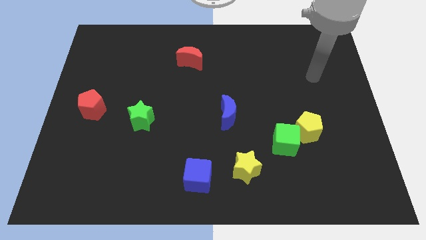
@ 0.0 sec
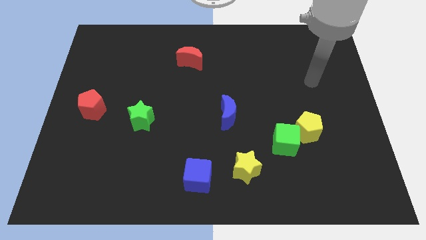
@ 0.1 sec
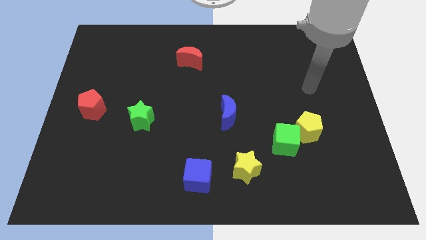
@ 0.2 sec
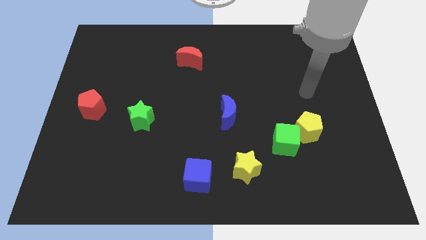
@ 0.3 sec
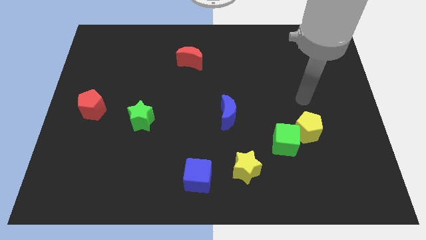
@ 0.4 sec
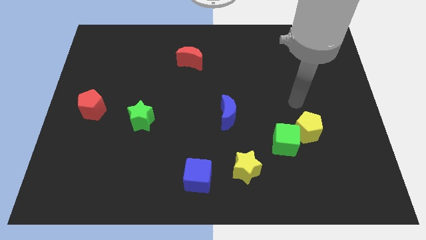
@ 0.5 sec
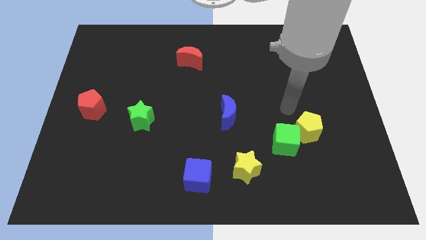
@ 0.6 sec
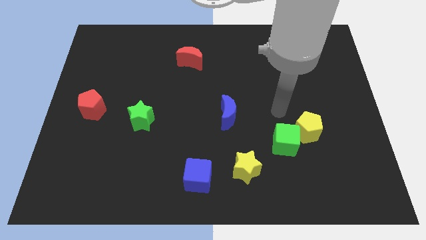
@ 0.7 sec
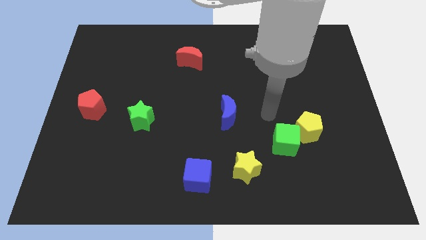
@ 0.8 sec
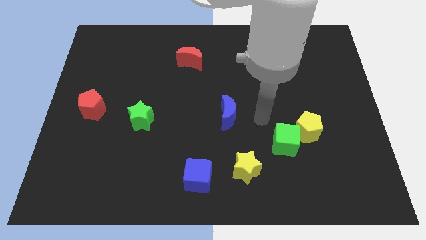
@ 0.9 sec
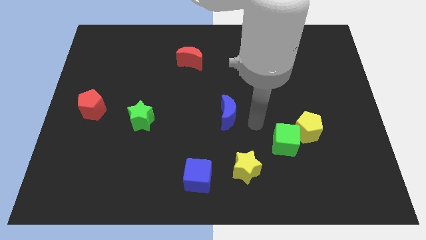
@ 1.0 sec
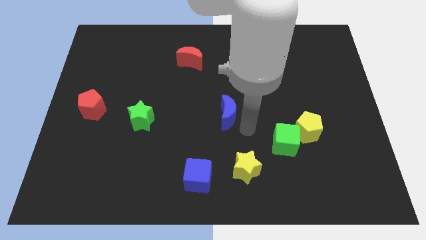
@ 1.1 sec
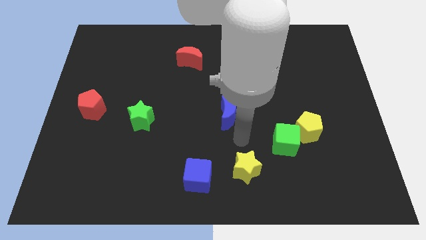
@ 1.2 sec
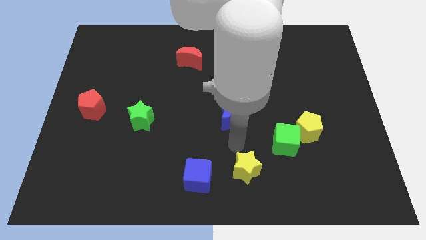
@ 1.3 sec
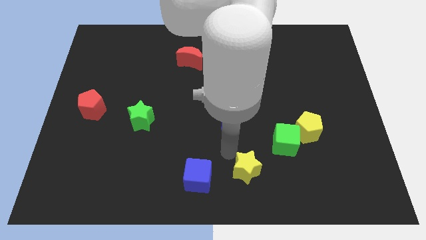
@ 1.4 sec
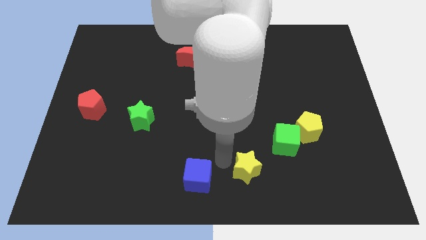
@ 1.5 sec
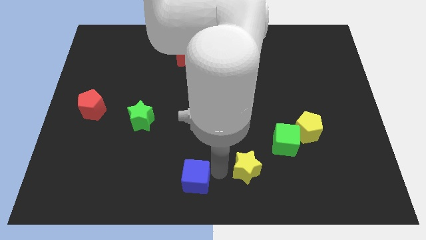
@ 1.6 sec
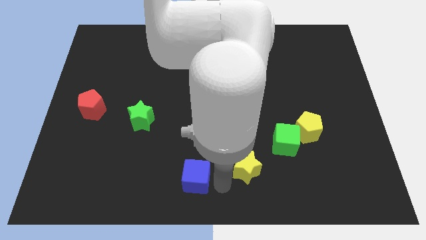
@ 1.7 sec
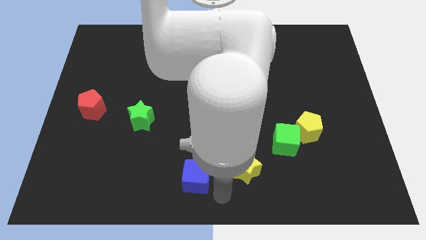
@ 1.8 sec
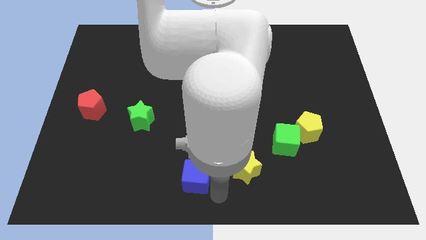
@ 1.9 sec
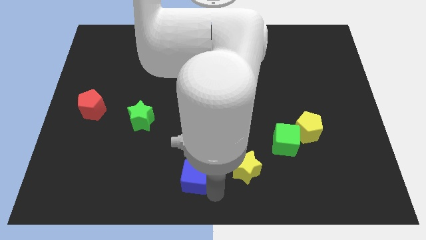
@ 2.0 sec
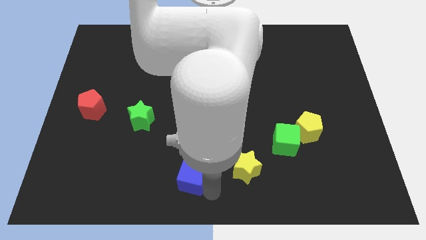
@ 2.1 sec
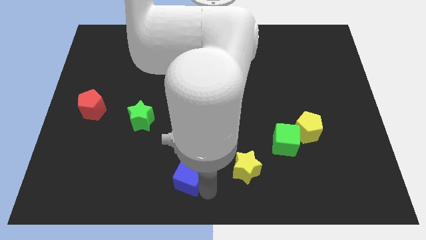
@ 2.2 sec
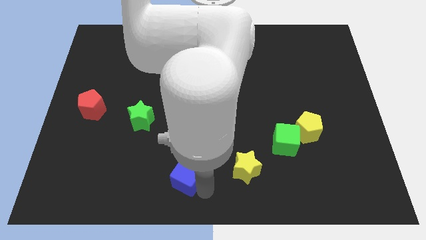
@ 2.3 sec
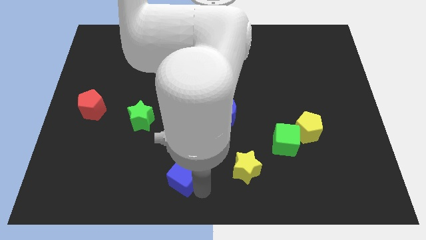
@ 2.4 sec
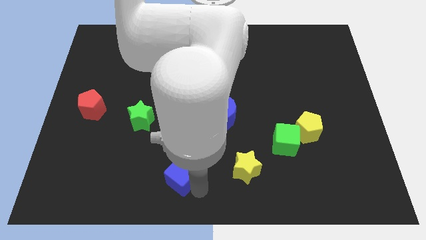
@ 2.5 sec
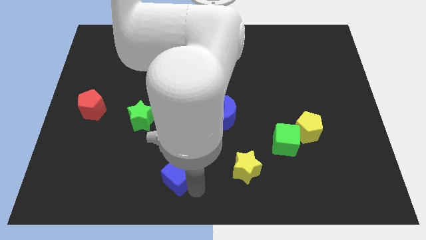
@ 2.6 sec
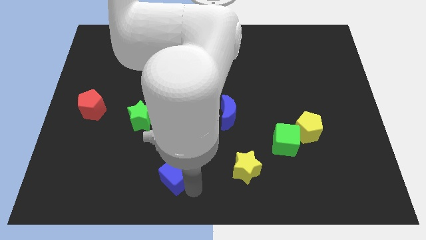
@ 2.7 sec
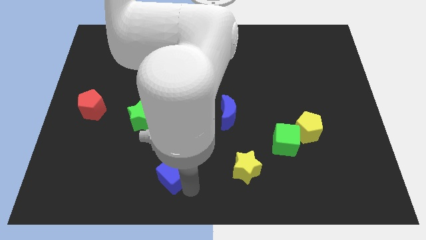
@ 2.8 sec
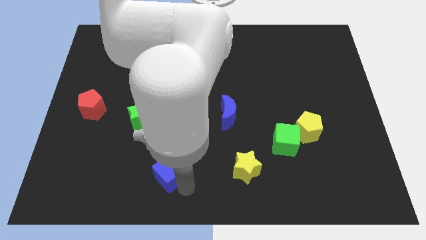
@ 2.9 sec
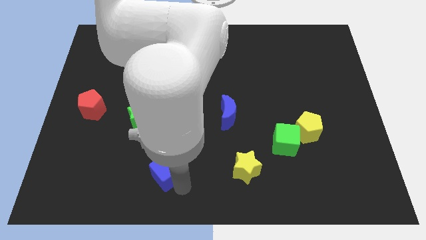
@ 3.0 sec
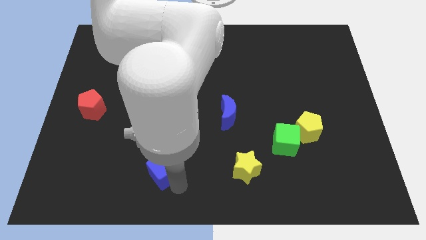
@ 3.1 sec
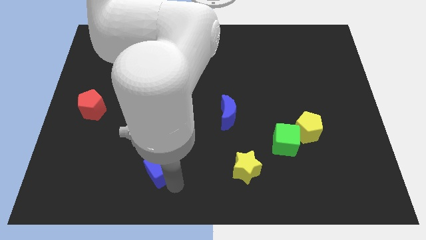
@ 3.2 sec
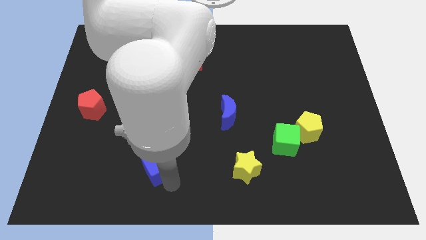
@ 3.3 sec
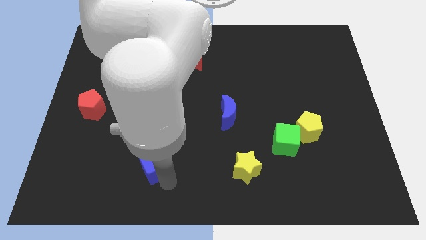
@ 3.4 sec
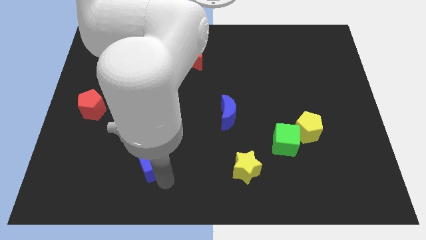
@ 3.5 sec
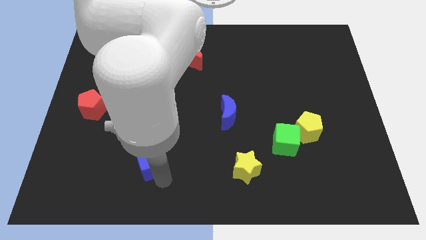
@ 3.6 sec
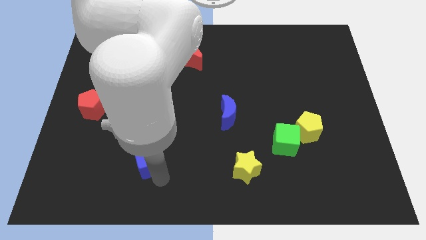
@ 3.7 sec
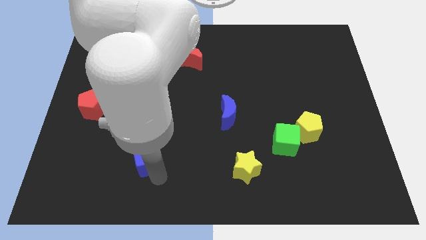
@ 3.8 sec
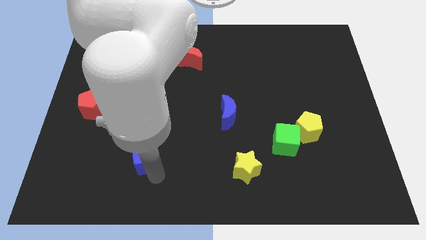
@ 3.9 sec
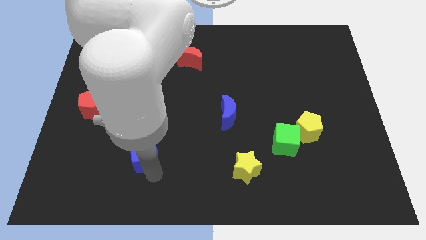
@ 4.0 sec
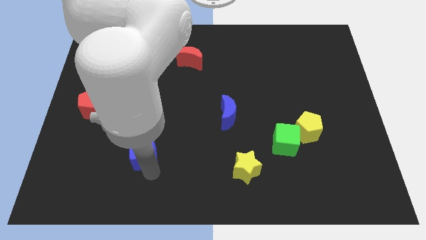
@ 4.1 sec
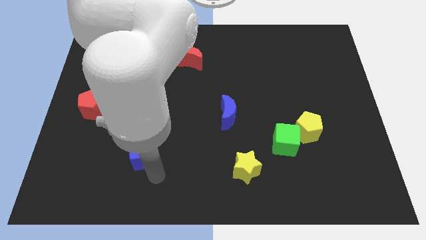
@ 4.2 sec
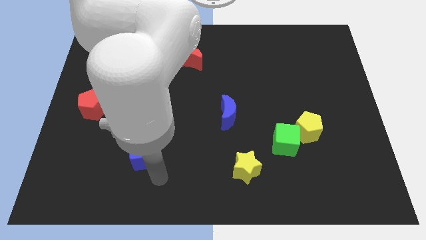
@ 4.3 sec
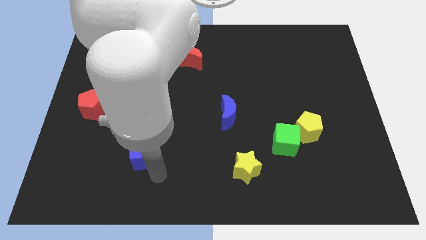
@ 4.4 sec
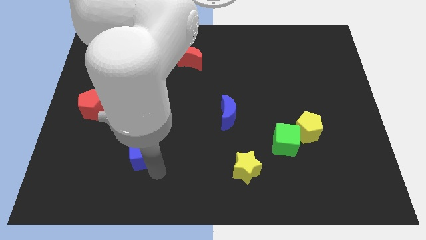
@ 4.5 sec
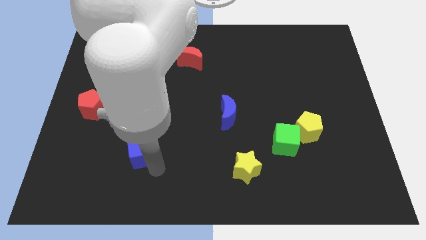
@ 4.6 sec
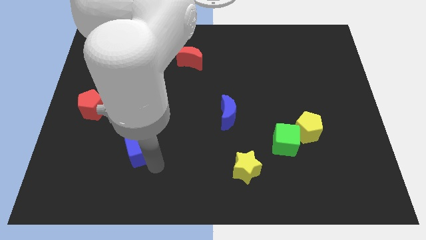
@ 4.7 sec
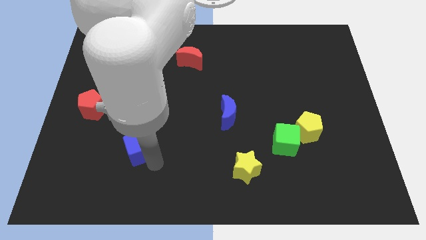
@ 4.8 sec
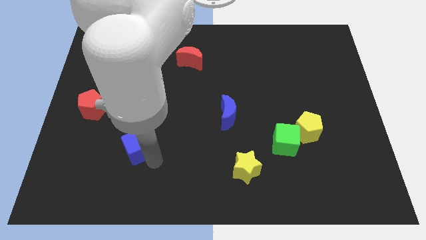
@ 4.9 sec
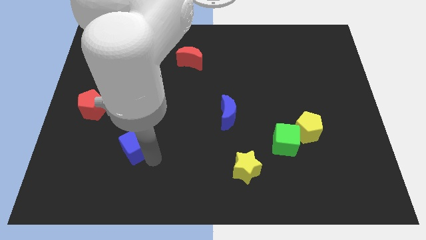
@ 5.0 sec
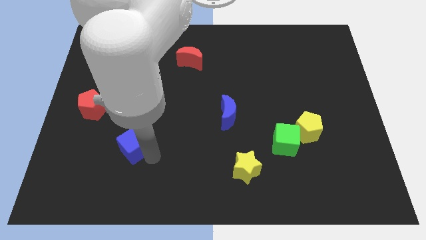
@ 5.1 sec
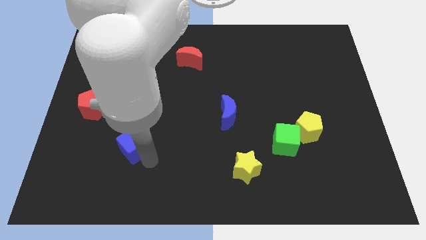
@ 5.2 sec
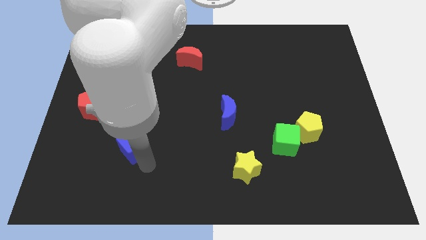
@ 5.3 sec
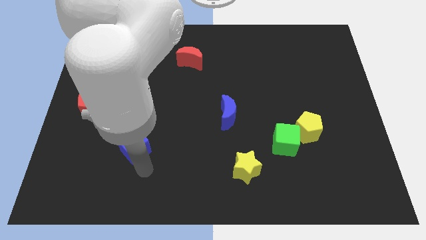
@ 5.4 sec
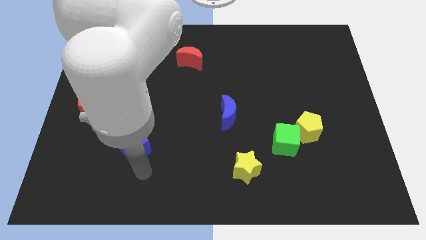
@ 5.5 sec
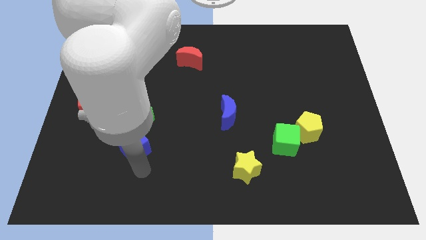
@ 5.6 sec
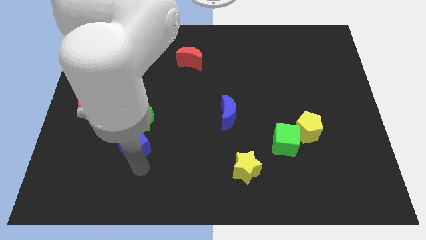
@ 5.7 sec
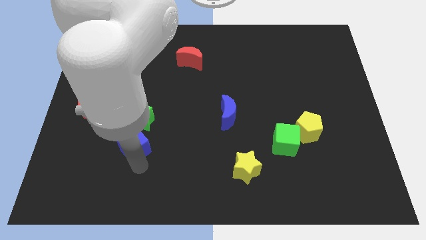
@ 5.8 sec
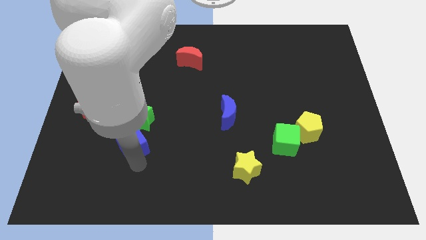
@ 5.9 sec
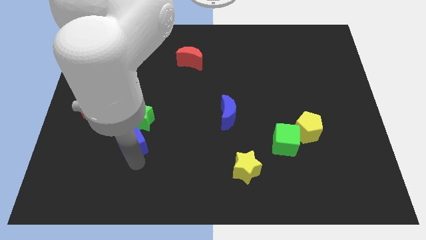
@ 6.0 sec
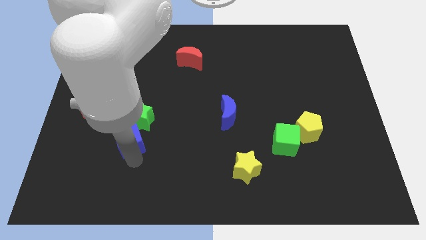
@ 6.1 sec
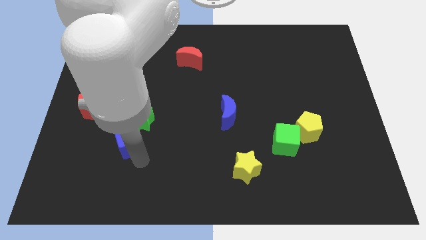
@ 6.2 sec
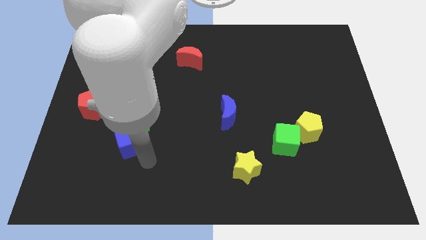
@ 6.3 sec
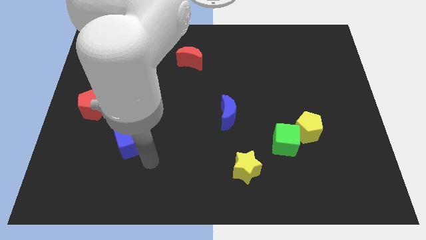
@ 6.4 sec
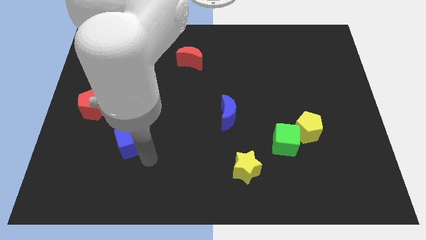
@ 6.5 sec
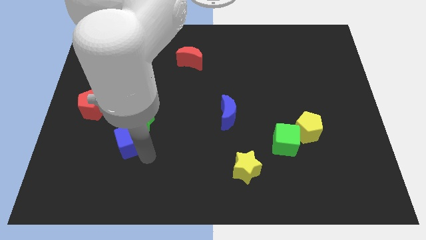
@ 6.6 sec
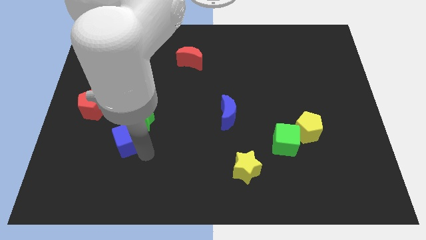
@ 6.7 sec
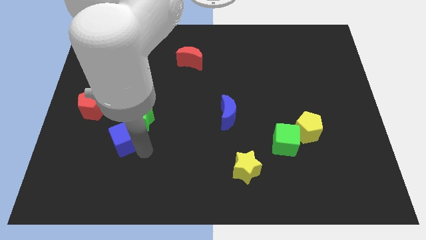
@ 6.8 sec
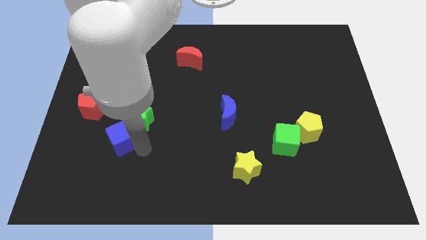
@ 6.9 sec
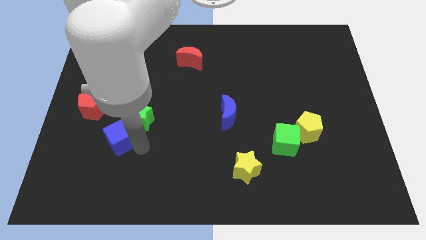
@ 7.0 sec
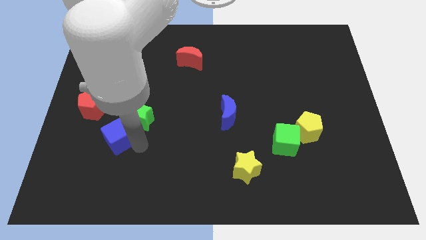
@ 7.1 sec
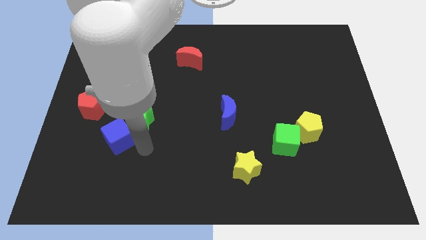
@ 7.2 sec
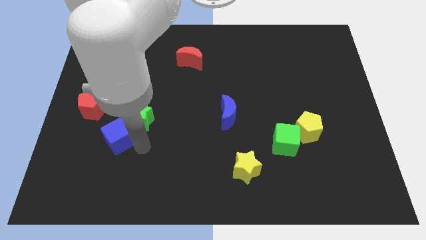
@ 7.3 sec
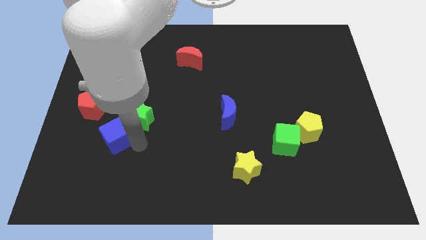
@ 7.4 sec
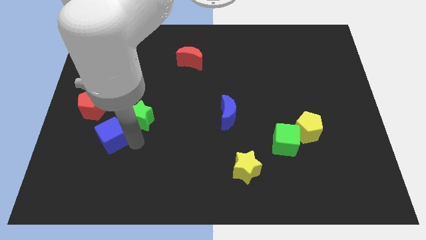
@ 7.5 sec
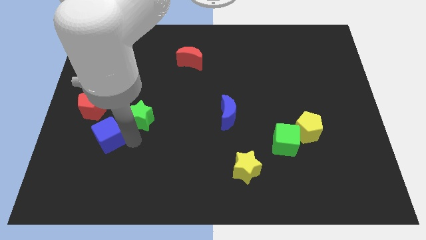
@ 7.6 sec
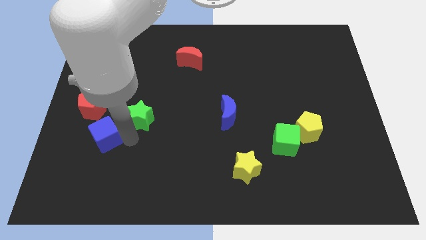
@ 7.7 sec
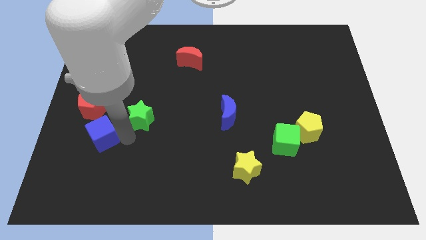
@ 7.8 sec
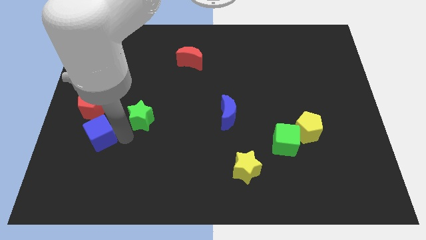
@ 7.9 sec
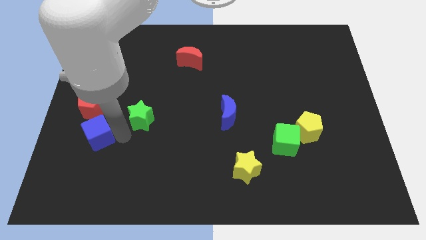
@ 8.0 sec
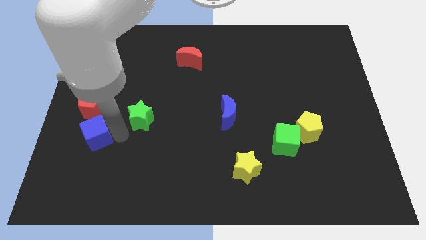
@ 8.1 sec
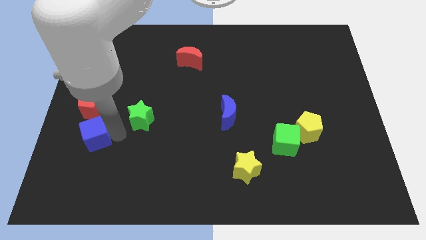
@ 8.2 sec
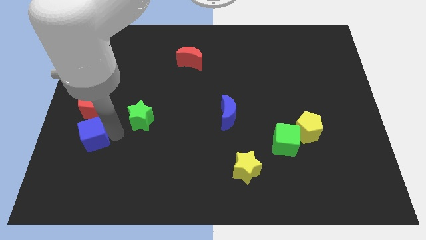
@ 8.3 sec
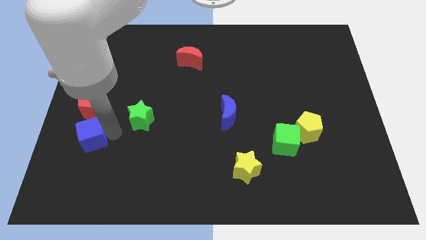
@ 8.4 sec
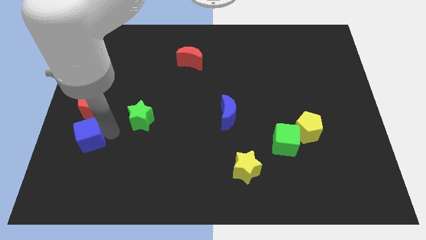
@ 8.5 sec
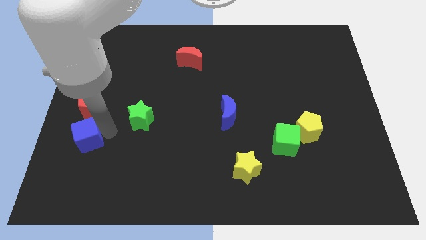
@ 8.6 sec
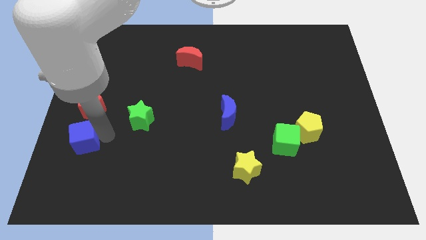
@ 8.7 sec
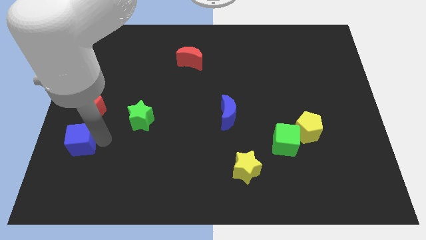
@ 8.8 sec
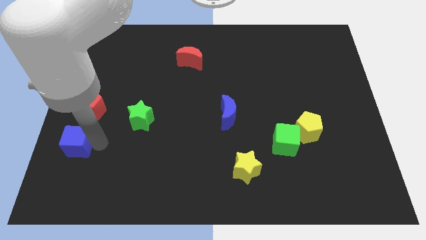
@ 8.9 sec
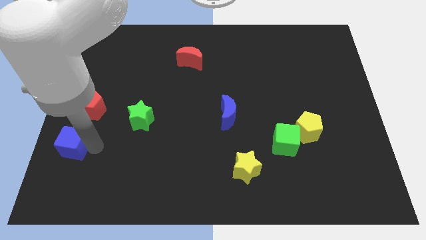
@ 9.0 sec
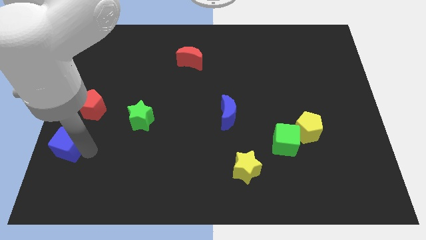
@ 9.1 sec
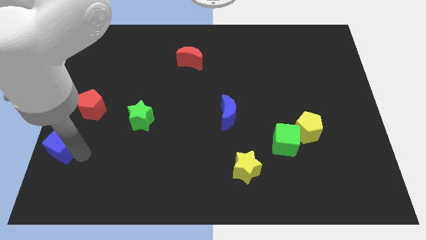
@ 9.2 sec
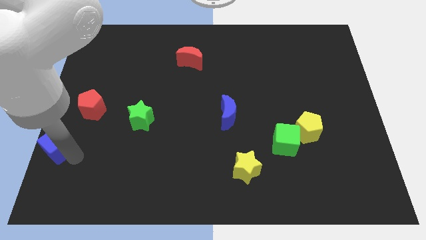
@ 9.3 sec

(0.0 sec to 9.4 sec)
put the blue cube to the left side of the board
